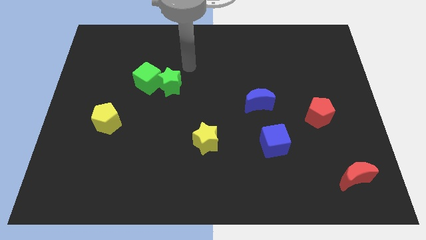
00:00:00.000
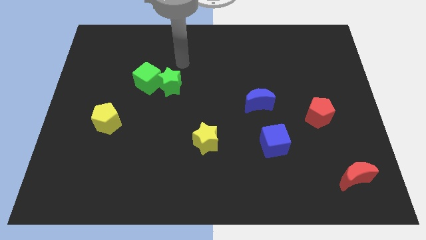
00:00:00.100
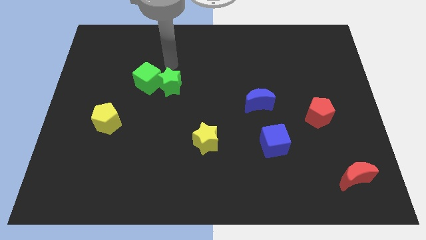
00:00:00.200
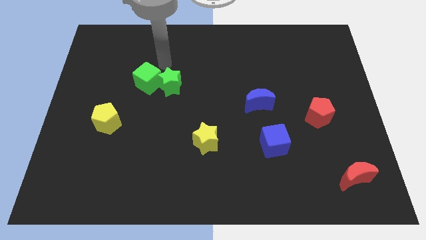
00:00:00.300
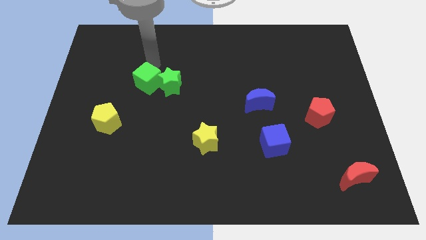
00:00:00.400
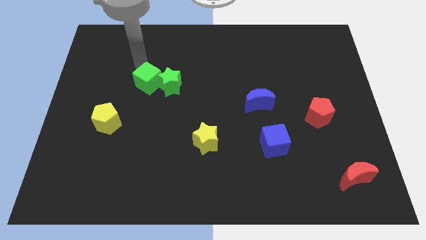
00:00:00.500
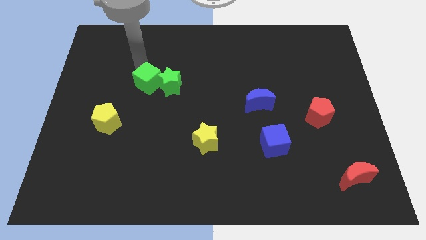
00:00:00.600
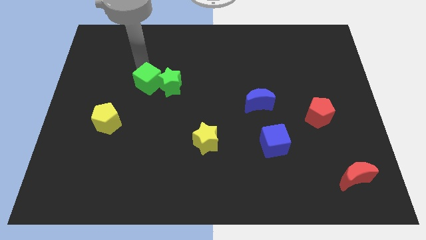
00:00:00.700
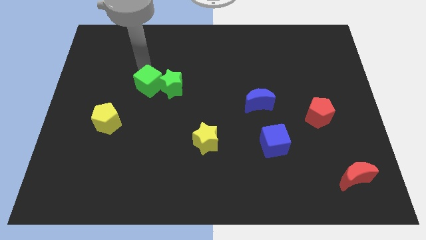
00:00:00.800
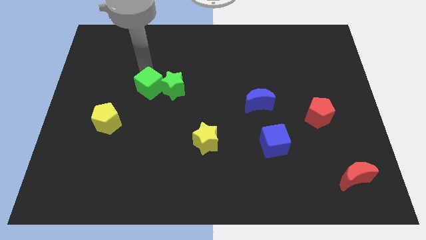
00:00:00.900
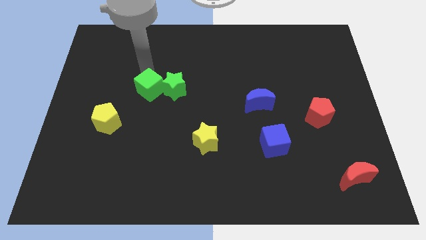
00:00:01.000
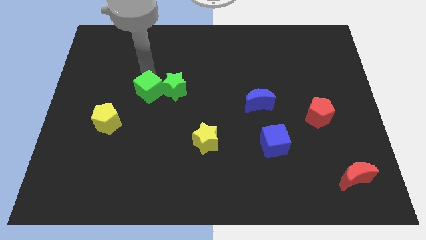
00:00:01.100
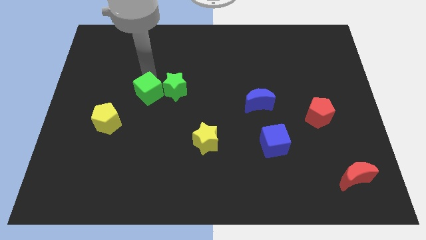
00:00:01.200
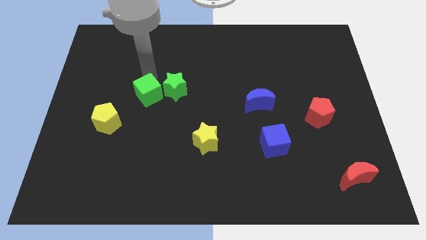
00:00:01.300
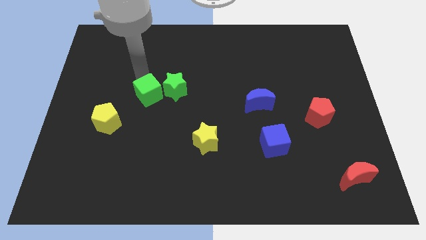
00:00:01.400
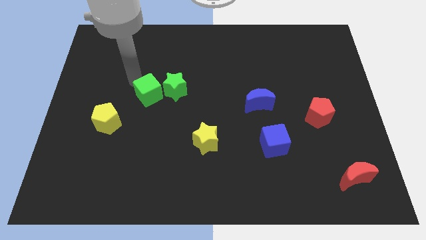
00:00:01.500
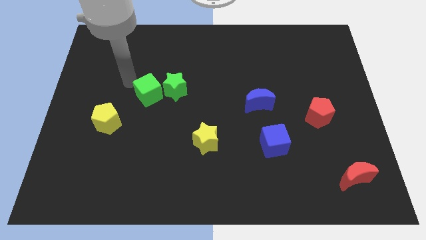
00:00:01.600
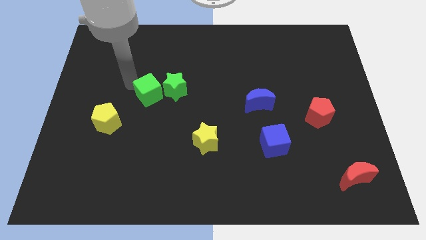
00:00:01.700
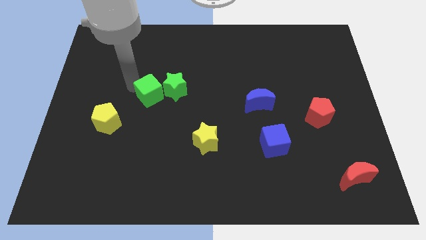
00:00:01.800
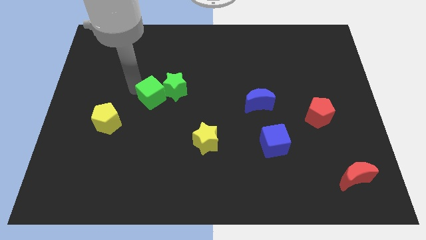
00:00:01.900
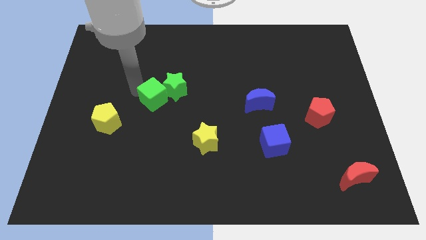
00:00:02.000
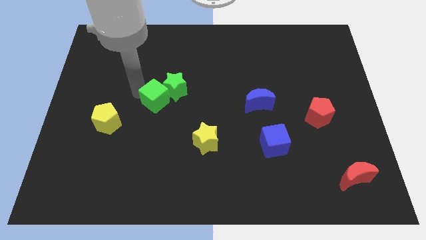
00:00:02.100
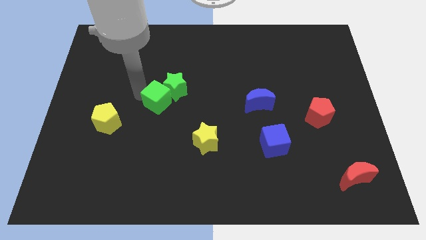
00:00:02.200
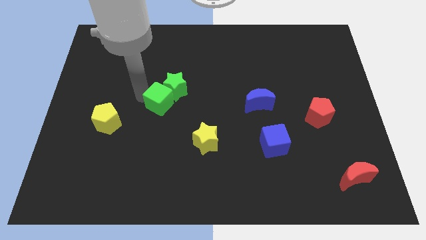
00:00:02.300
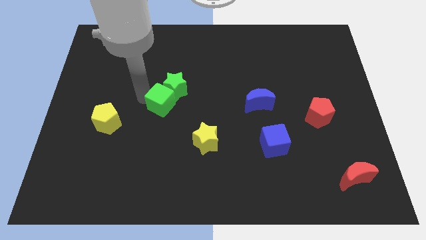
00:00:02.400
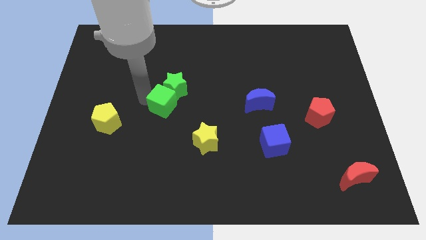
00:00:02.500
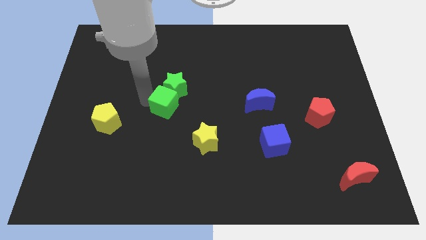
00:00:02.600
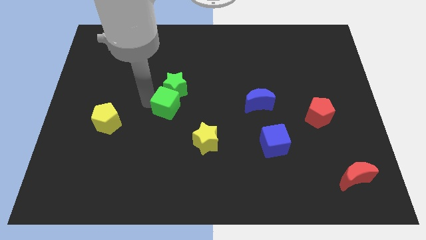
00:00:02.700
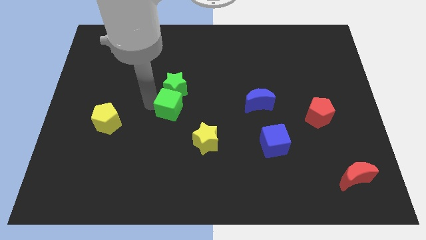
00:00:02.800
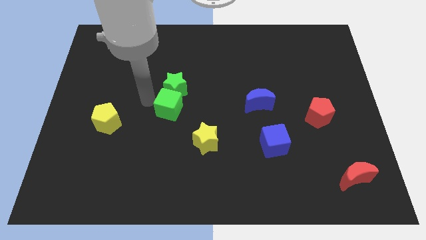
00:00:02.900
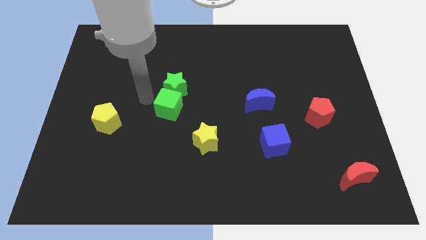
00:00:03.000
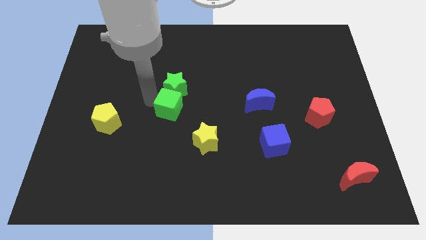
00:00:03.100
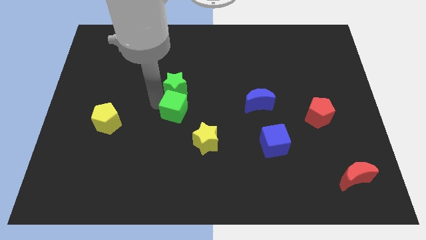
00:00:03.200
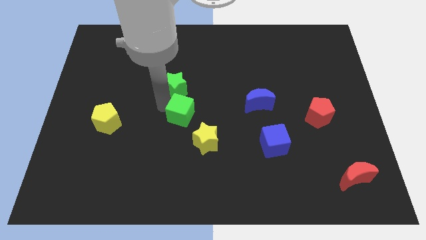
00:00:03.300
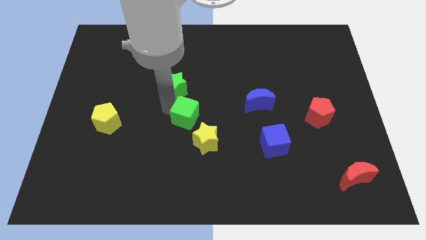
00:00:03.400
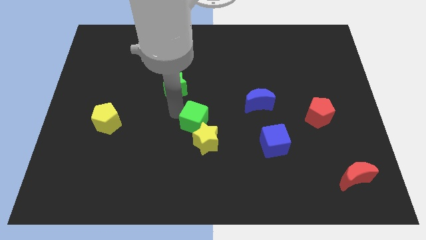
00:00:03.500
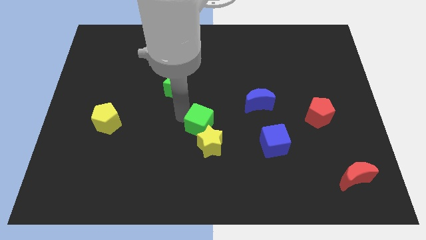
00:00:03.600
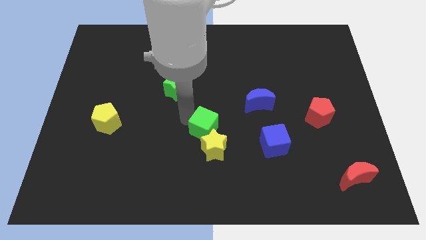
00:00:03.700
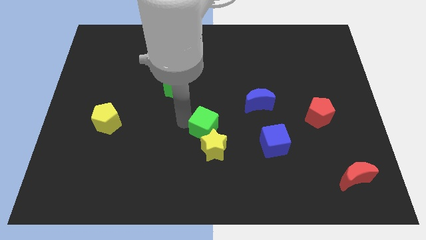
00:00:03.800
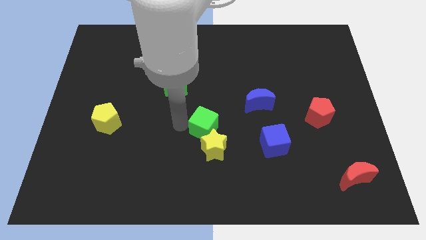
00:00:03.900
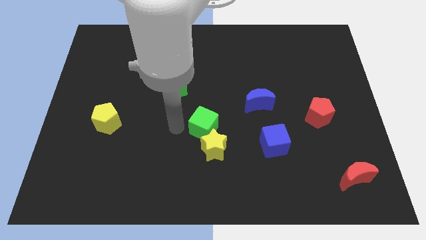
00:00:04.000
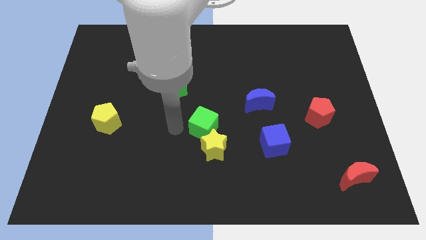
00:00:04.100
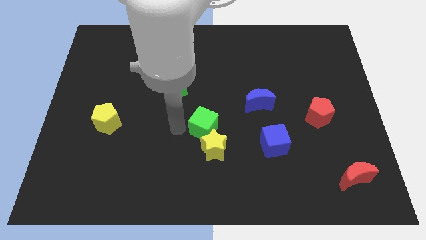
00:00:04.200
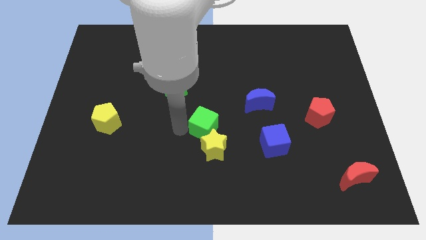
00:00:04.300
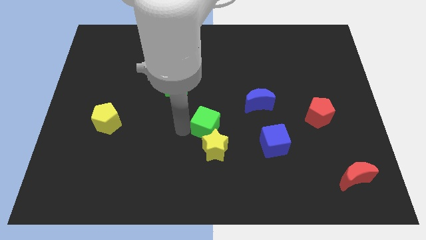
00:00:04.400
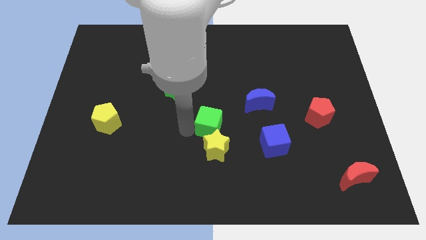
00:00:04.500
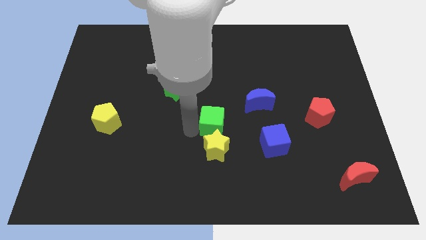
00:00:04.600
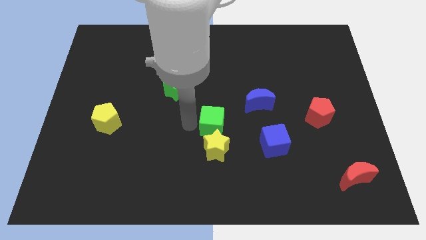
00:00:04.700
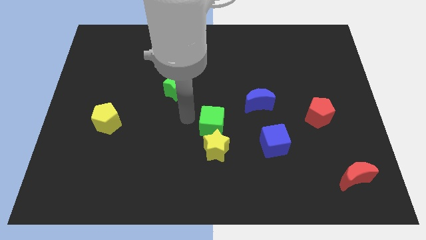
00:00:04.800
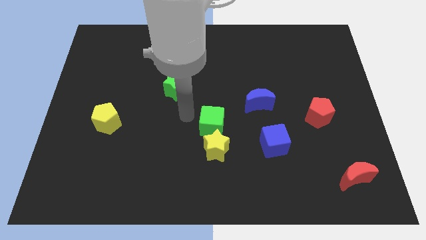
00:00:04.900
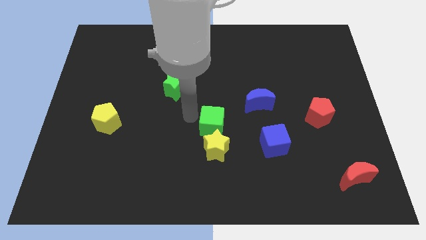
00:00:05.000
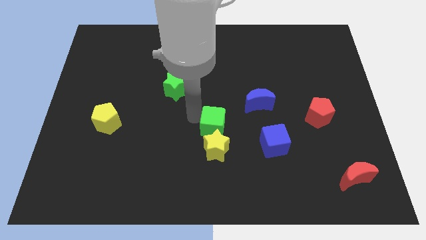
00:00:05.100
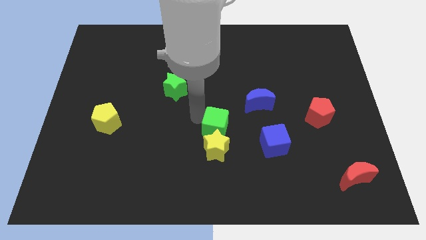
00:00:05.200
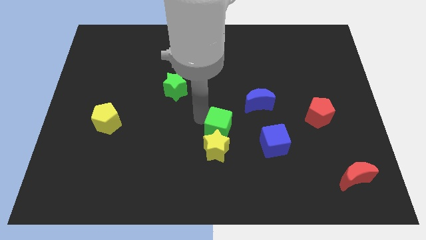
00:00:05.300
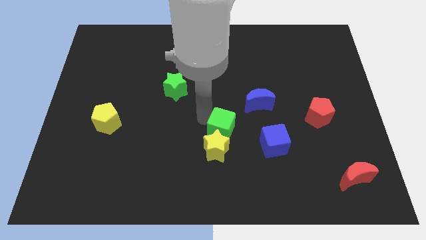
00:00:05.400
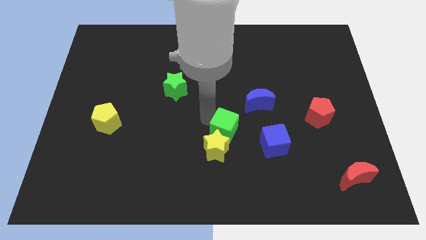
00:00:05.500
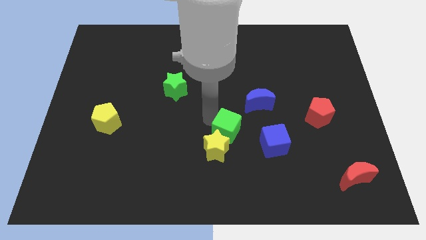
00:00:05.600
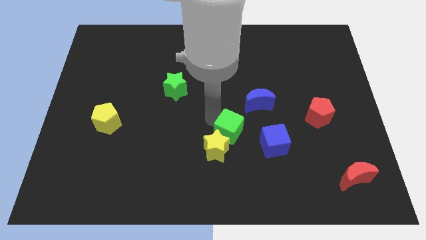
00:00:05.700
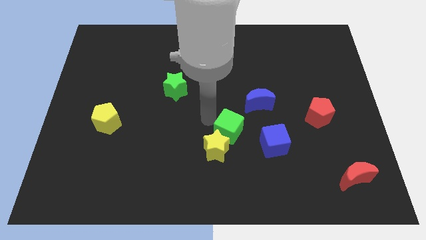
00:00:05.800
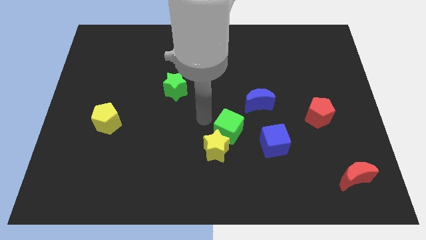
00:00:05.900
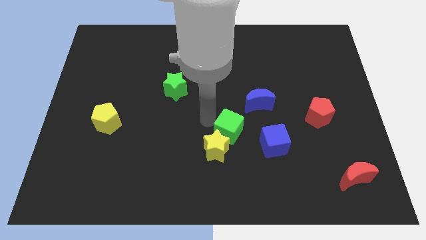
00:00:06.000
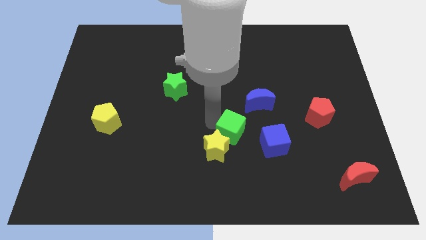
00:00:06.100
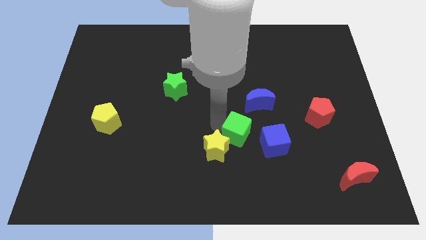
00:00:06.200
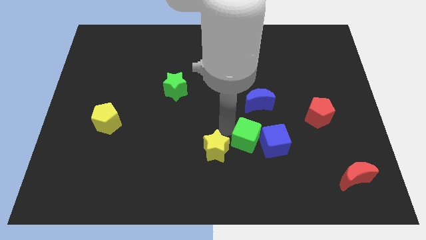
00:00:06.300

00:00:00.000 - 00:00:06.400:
put the green cube to the blue cube

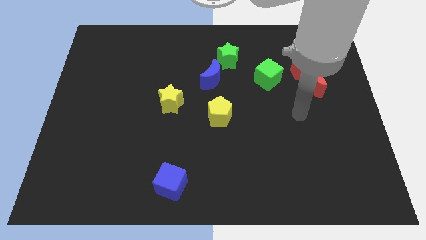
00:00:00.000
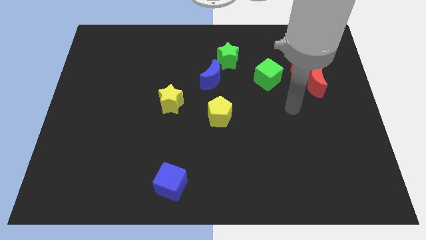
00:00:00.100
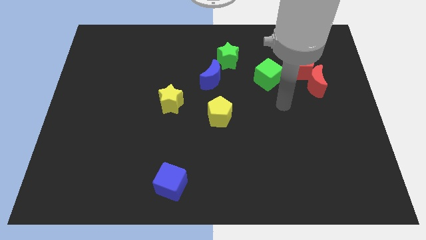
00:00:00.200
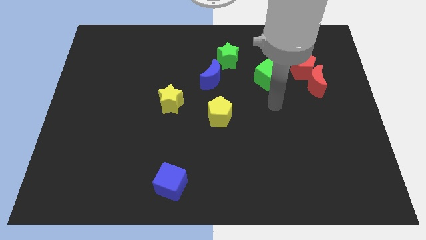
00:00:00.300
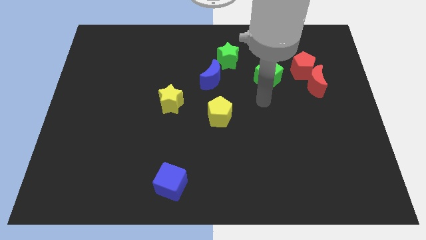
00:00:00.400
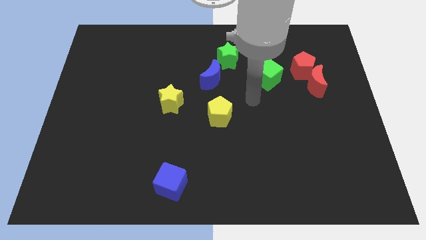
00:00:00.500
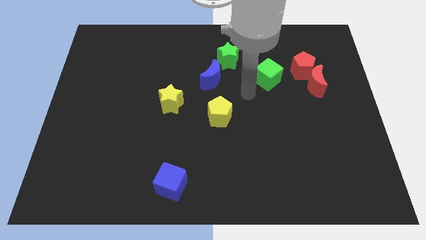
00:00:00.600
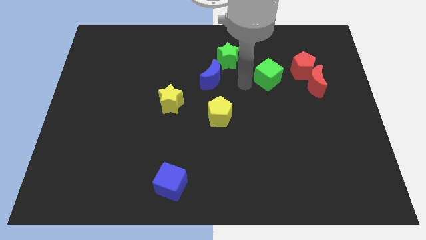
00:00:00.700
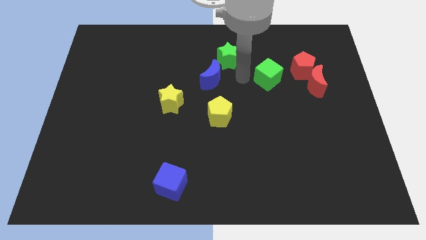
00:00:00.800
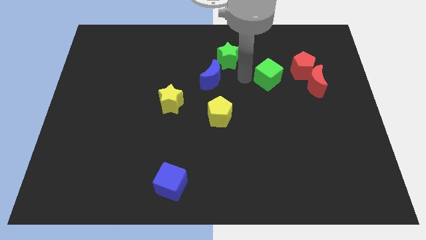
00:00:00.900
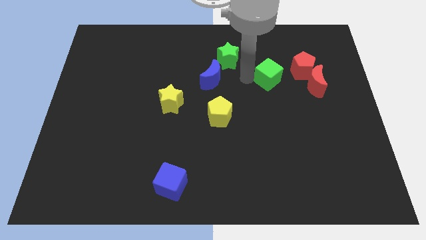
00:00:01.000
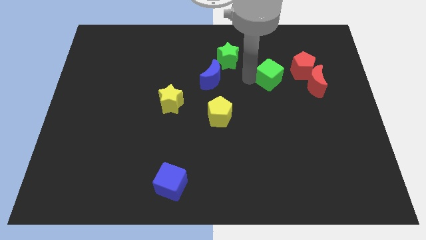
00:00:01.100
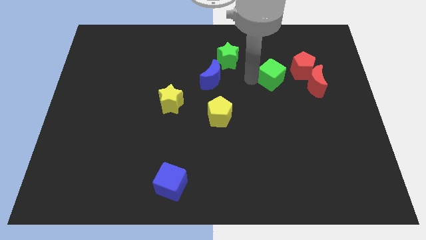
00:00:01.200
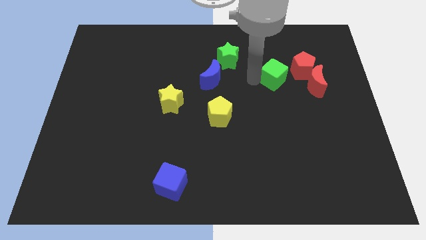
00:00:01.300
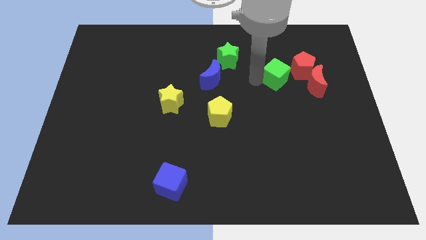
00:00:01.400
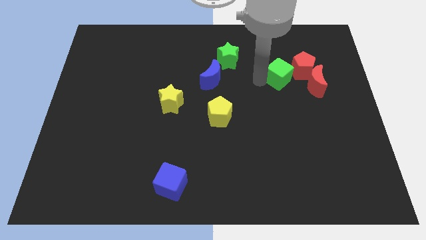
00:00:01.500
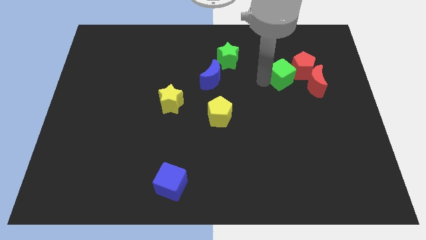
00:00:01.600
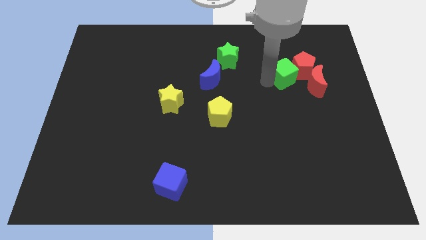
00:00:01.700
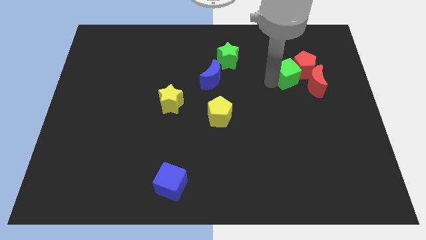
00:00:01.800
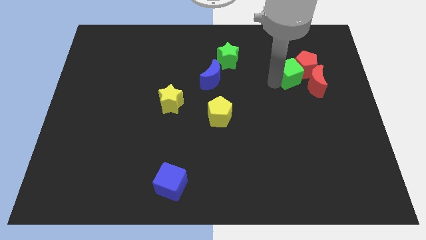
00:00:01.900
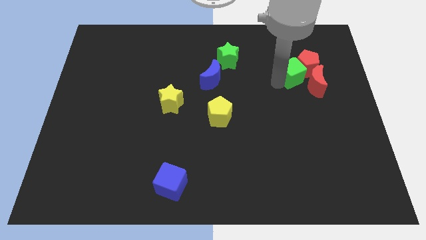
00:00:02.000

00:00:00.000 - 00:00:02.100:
slide the green cube towards the red moon
